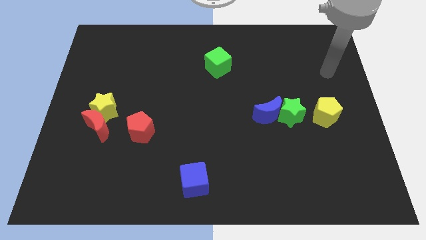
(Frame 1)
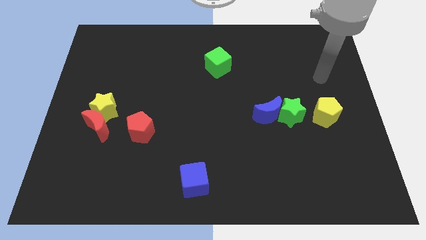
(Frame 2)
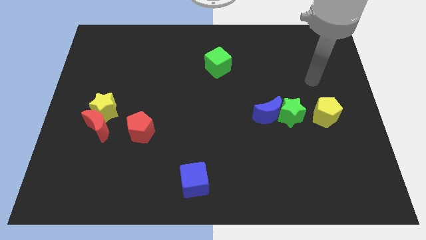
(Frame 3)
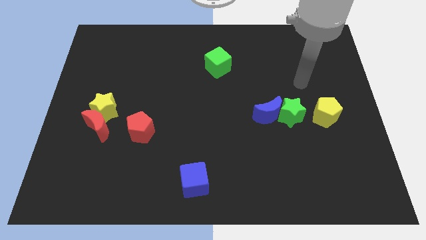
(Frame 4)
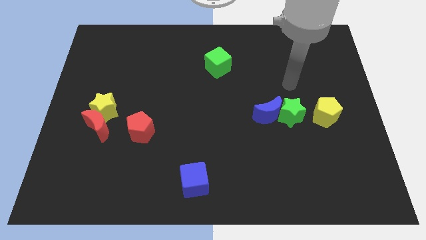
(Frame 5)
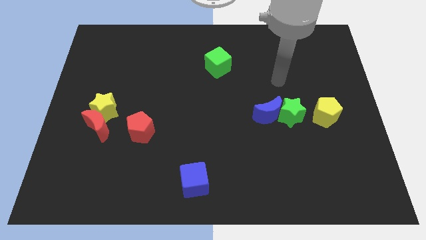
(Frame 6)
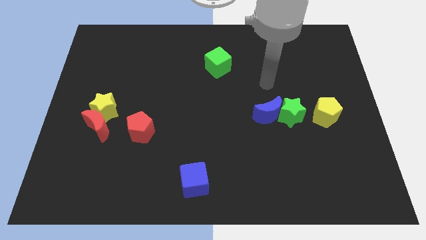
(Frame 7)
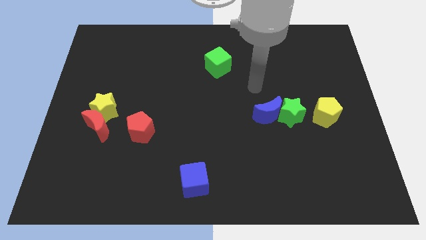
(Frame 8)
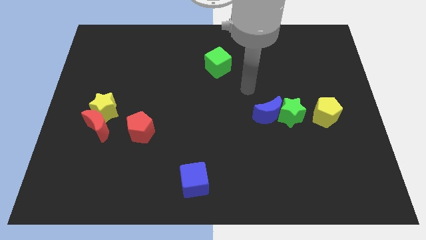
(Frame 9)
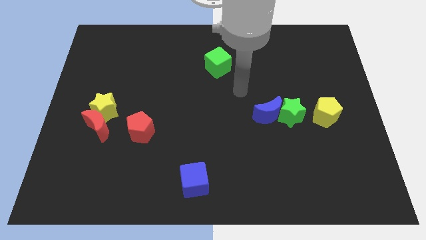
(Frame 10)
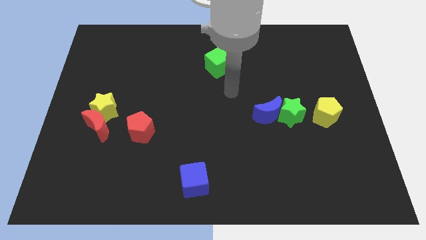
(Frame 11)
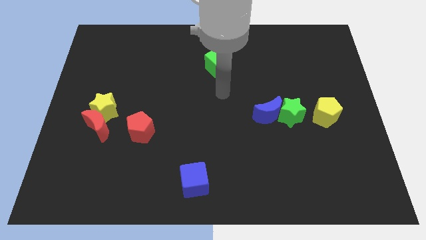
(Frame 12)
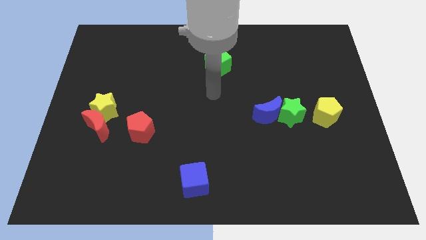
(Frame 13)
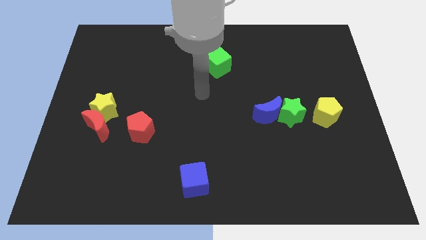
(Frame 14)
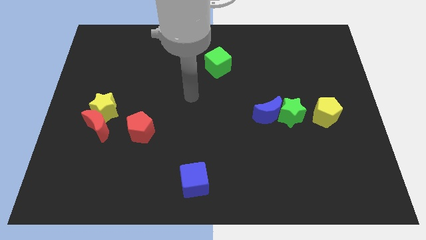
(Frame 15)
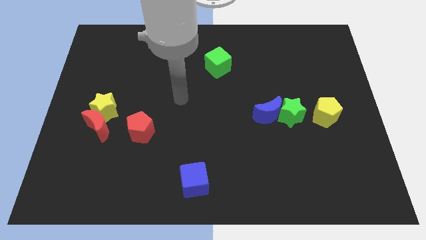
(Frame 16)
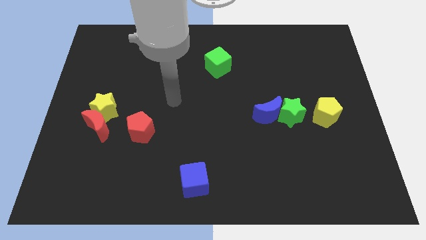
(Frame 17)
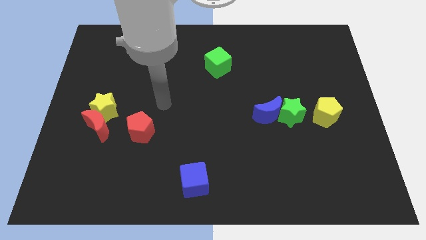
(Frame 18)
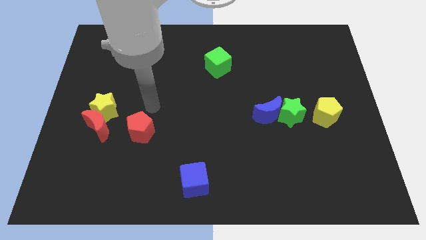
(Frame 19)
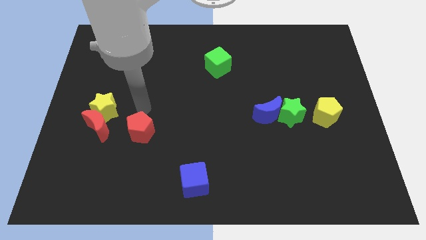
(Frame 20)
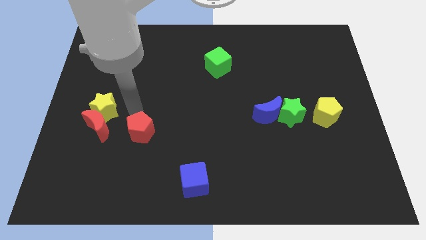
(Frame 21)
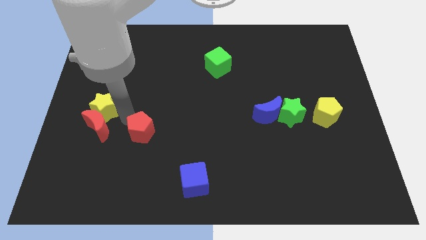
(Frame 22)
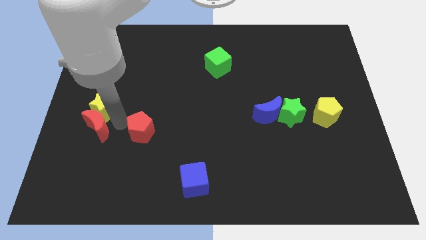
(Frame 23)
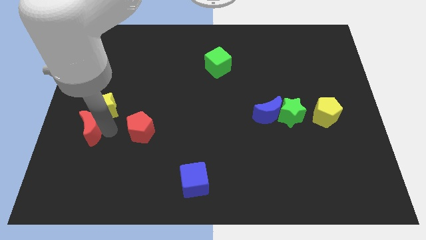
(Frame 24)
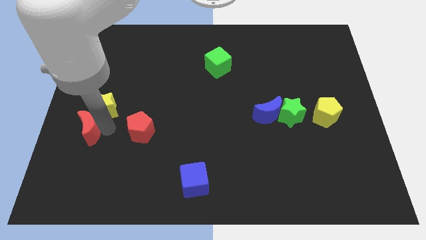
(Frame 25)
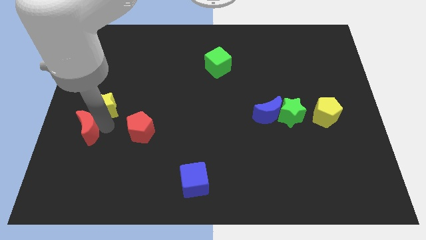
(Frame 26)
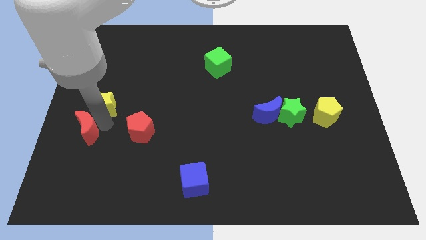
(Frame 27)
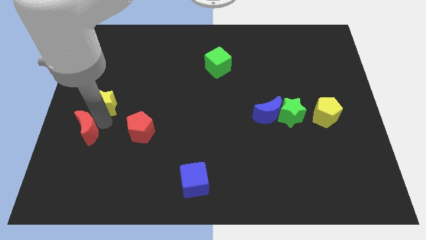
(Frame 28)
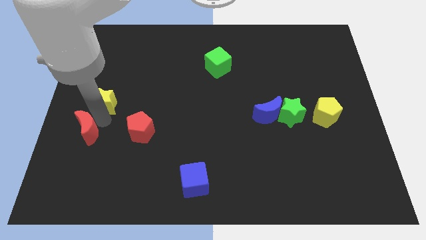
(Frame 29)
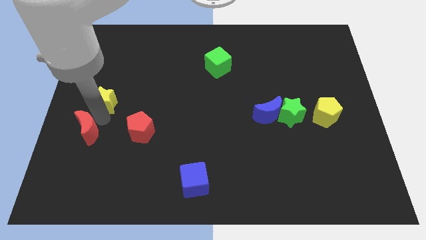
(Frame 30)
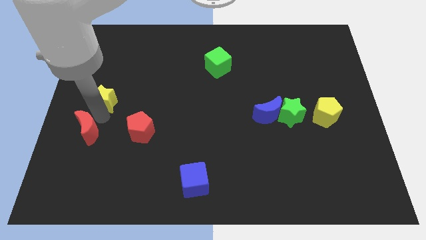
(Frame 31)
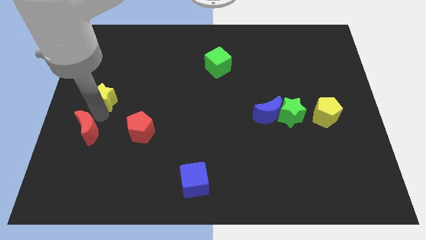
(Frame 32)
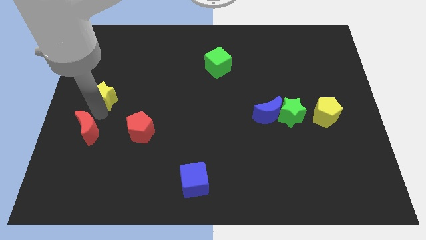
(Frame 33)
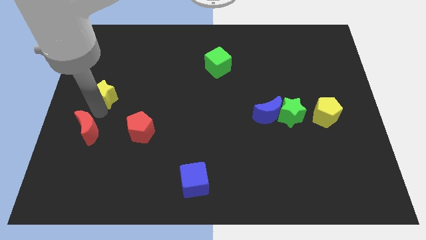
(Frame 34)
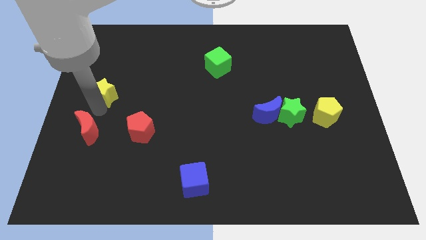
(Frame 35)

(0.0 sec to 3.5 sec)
separate the yellow star from the red moon

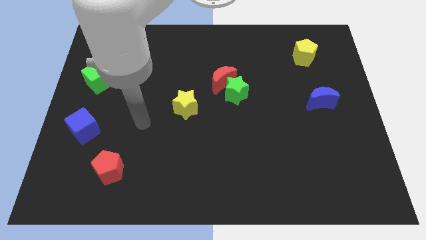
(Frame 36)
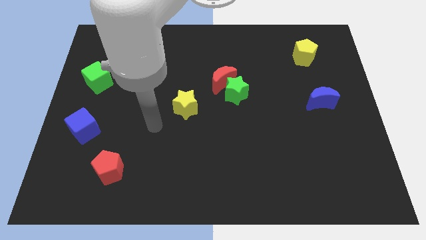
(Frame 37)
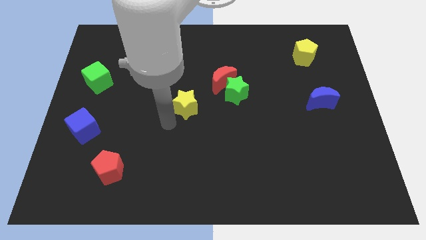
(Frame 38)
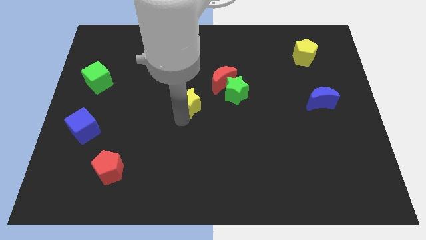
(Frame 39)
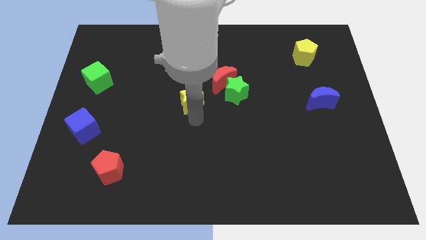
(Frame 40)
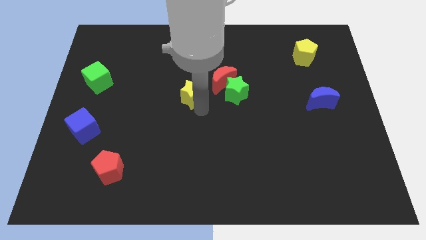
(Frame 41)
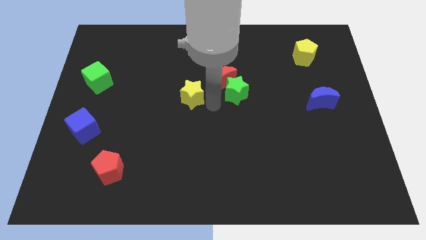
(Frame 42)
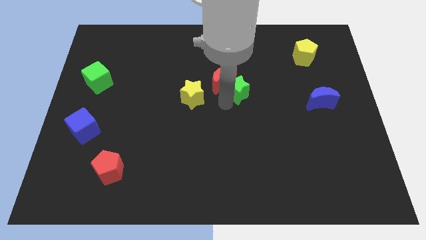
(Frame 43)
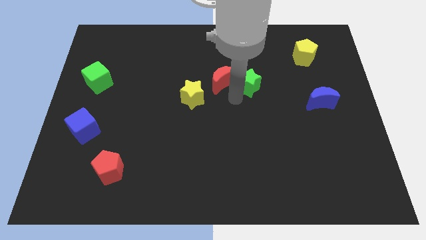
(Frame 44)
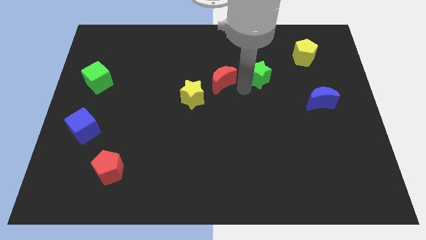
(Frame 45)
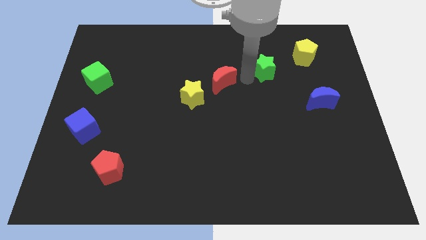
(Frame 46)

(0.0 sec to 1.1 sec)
pull the red moon apart from the green star

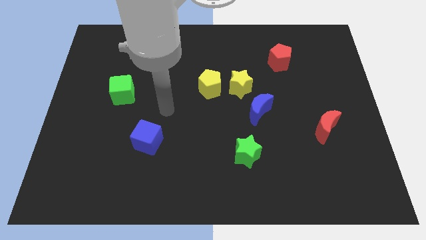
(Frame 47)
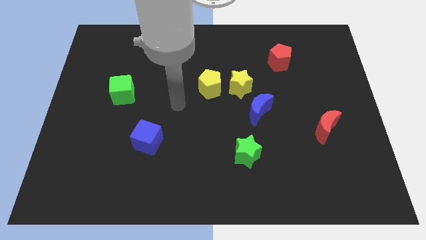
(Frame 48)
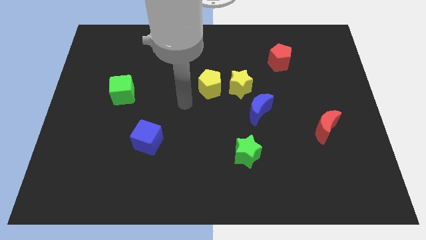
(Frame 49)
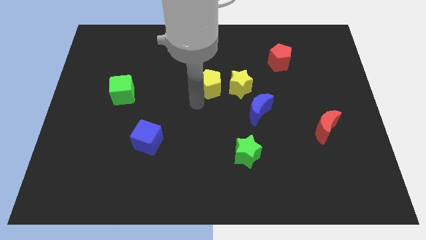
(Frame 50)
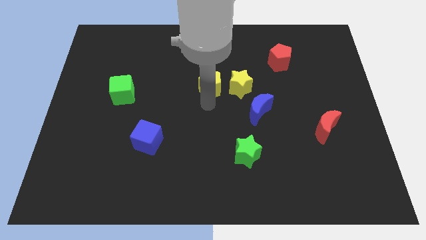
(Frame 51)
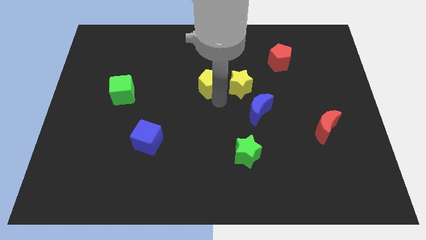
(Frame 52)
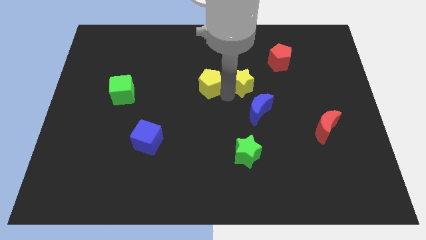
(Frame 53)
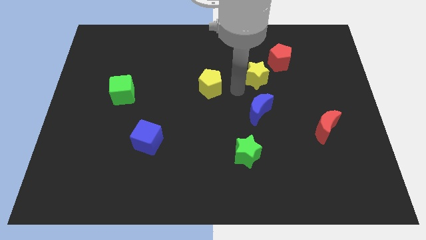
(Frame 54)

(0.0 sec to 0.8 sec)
move the yellow pentagon away from the yellow star

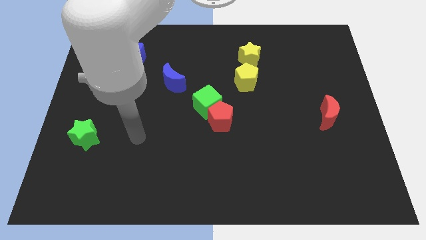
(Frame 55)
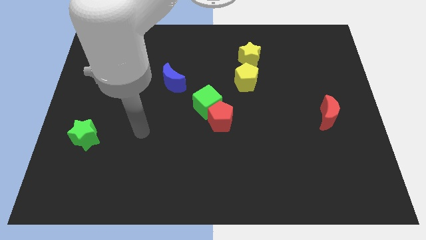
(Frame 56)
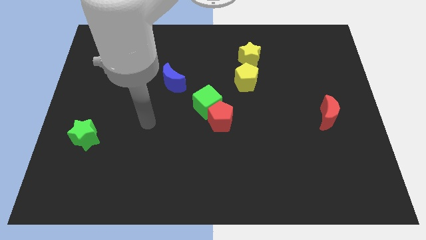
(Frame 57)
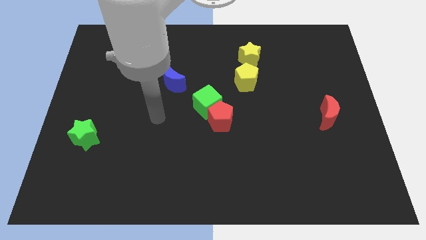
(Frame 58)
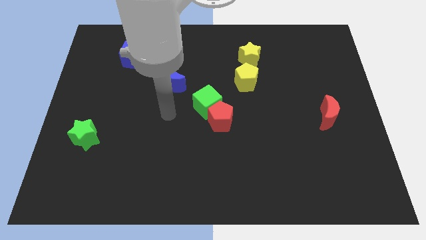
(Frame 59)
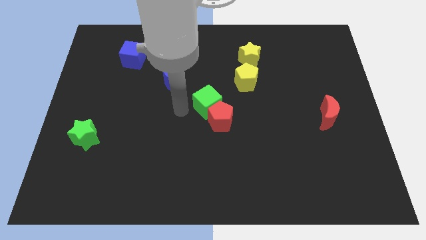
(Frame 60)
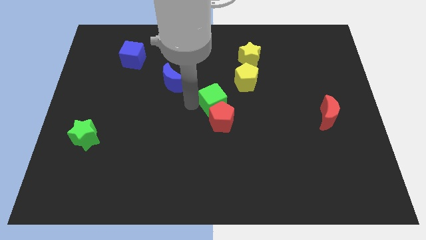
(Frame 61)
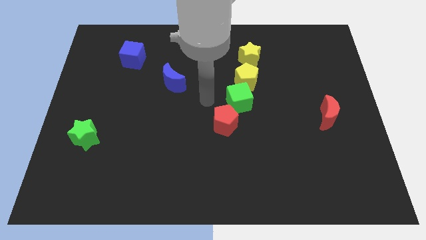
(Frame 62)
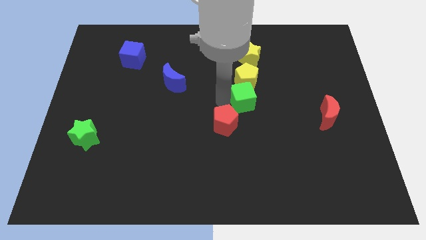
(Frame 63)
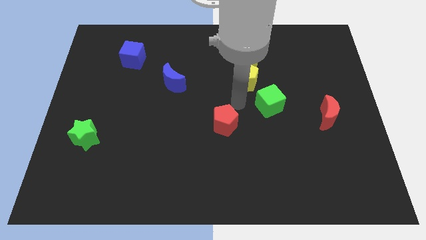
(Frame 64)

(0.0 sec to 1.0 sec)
pull the red pentagon apart from the green cube

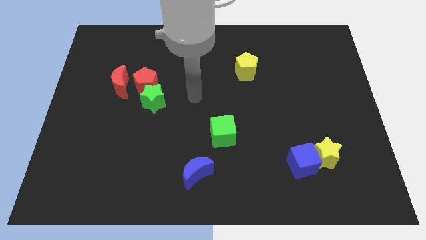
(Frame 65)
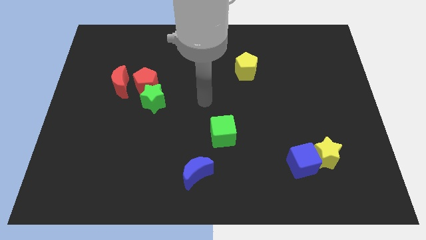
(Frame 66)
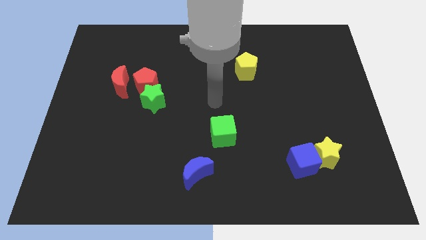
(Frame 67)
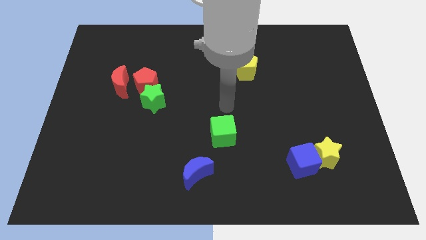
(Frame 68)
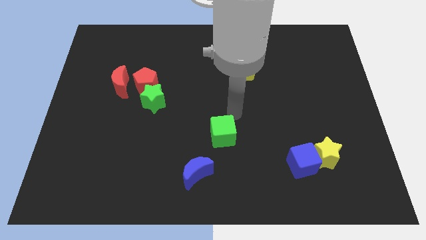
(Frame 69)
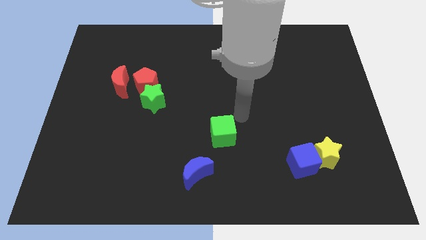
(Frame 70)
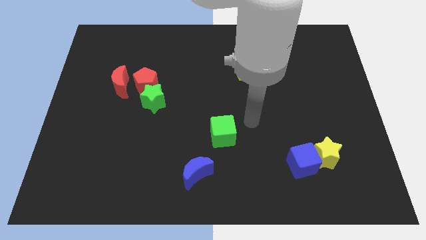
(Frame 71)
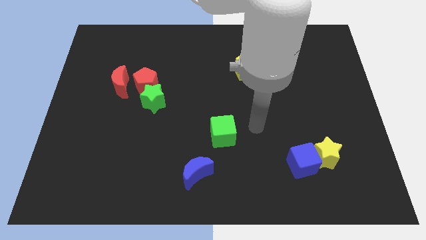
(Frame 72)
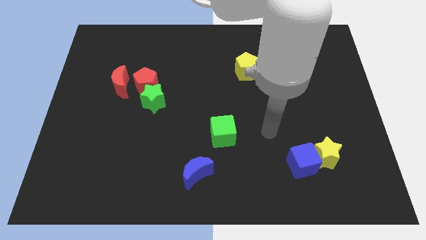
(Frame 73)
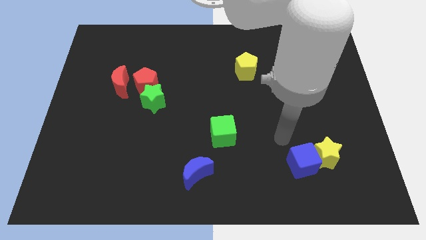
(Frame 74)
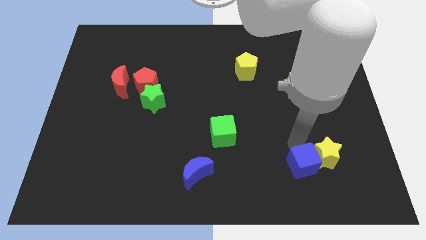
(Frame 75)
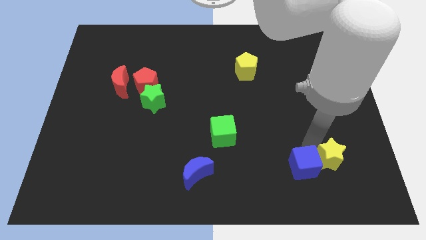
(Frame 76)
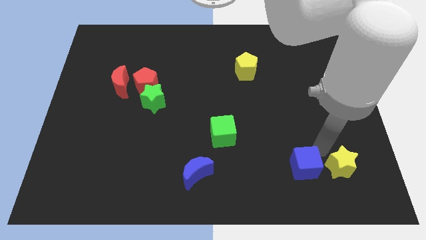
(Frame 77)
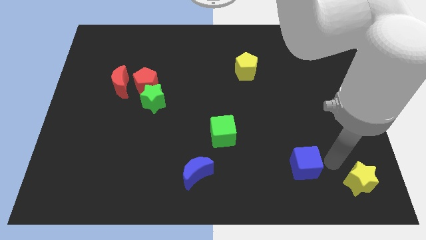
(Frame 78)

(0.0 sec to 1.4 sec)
separate the blue cube from the yellow star

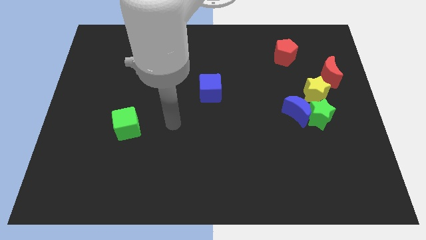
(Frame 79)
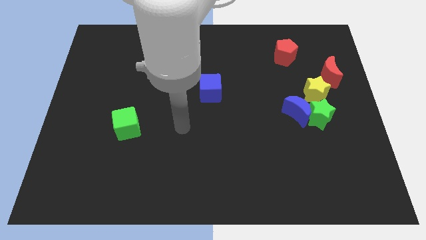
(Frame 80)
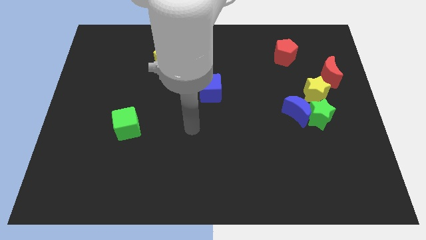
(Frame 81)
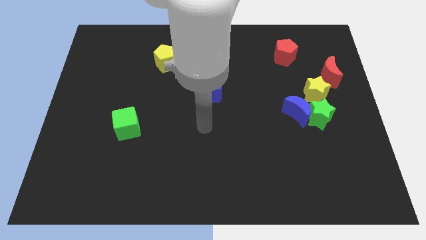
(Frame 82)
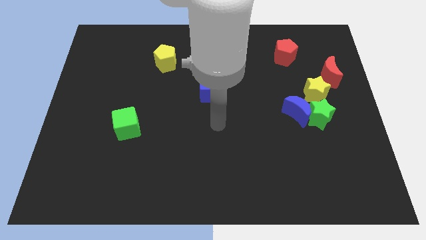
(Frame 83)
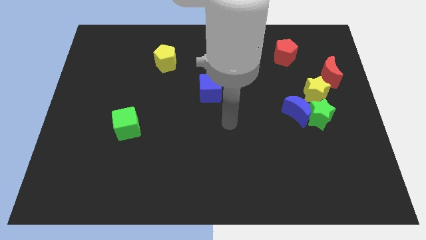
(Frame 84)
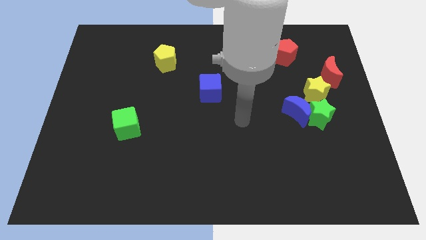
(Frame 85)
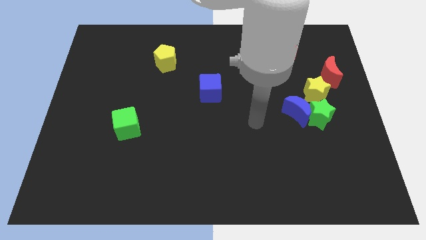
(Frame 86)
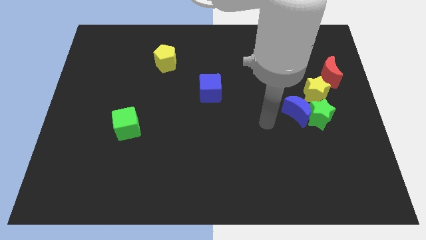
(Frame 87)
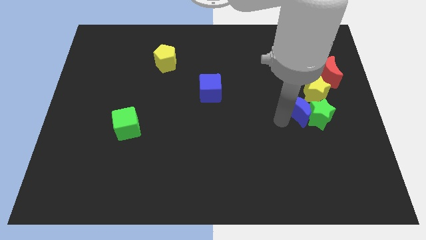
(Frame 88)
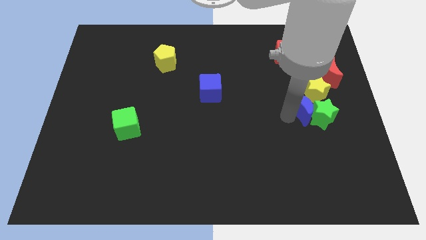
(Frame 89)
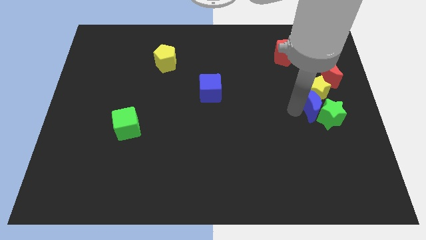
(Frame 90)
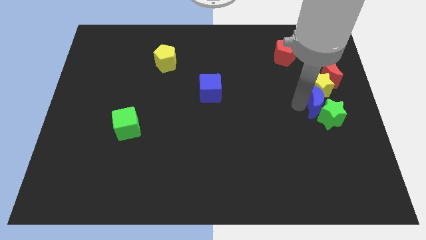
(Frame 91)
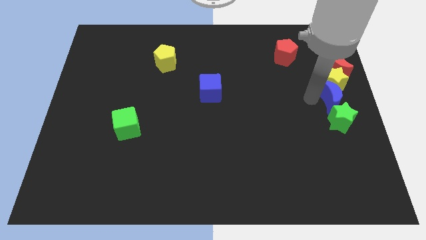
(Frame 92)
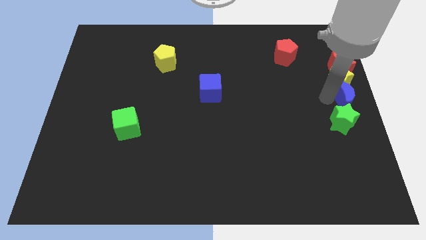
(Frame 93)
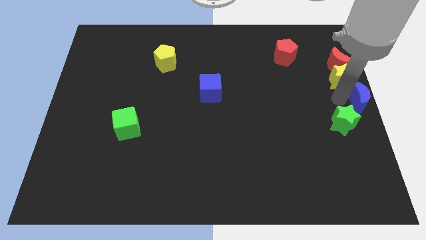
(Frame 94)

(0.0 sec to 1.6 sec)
separate the green star from the blue moon and yellow star
